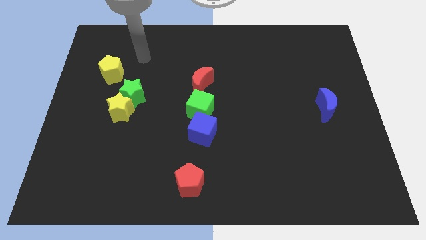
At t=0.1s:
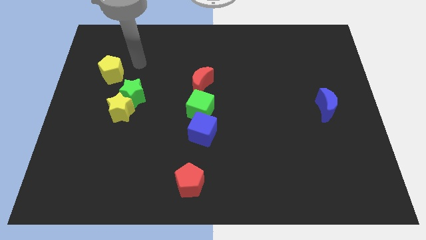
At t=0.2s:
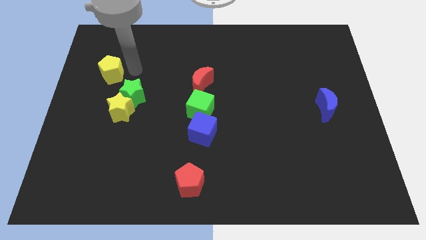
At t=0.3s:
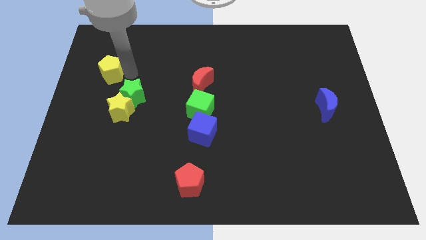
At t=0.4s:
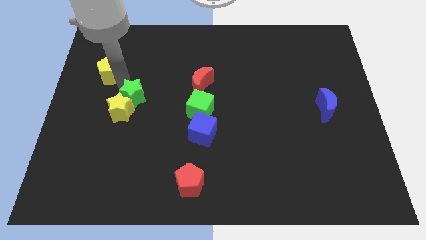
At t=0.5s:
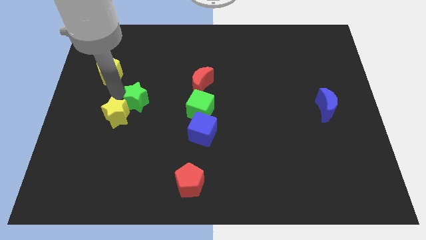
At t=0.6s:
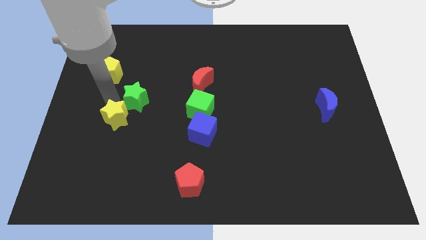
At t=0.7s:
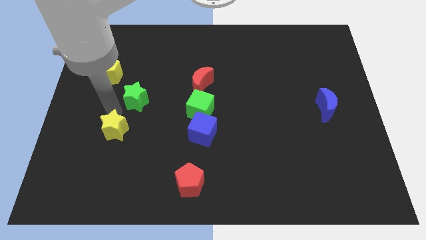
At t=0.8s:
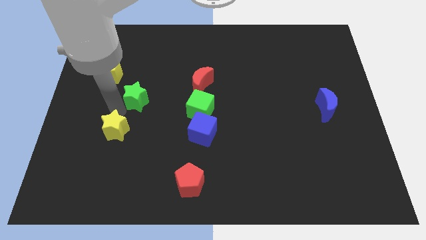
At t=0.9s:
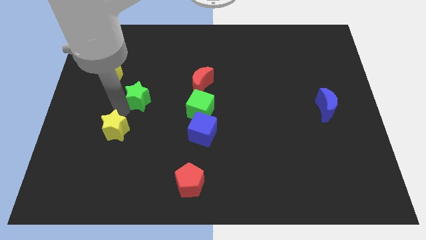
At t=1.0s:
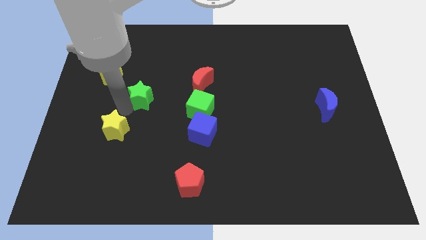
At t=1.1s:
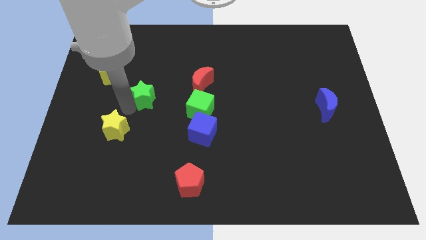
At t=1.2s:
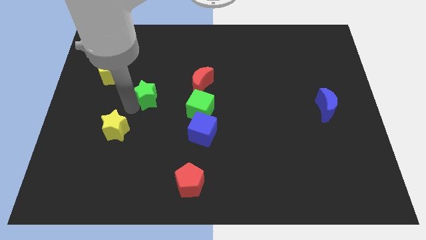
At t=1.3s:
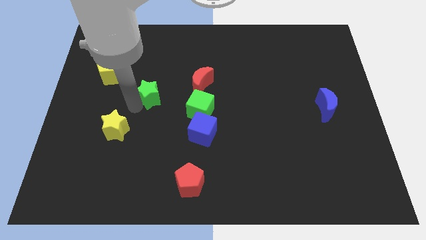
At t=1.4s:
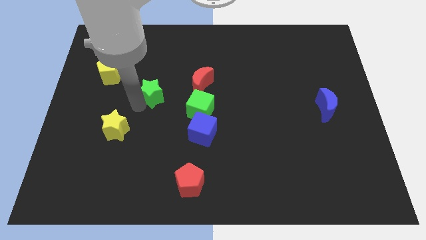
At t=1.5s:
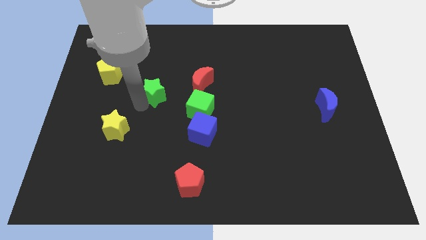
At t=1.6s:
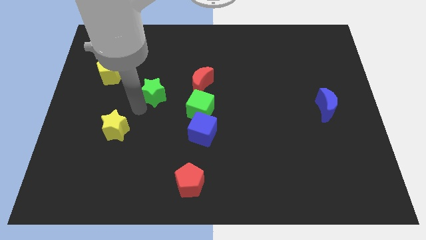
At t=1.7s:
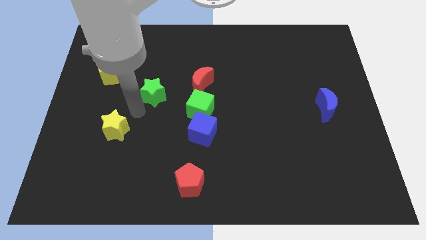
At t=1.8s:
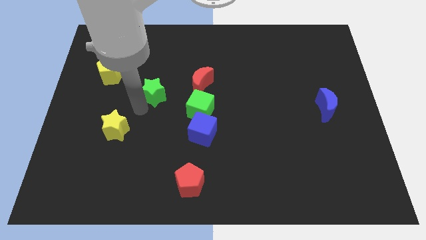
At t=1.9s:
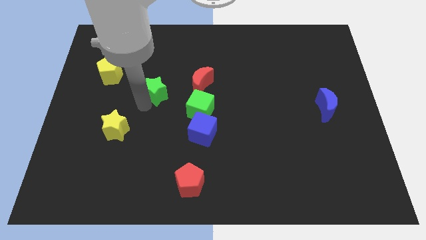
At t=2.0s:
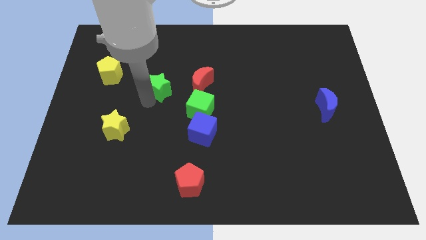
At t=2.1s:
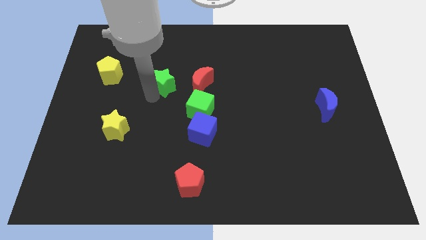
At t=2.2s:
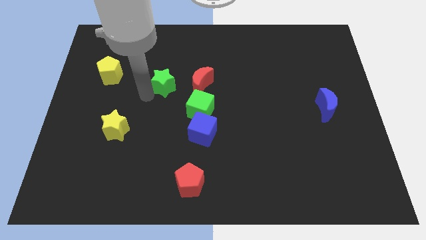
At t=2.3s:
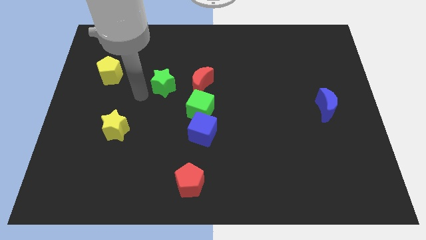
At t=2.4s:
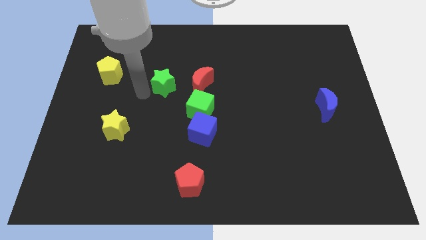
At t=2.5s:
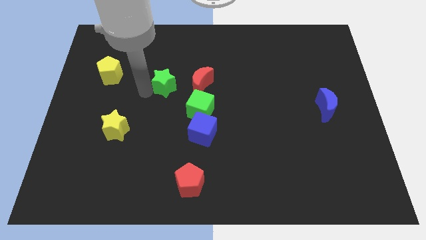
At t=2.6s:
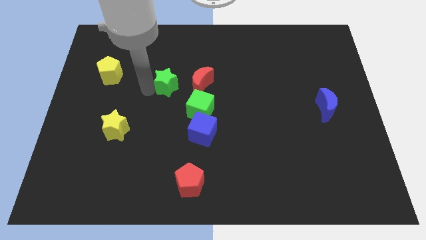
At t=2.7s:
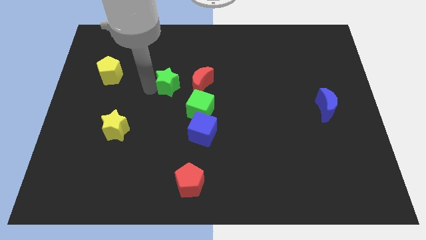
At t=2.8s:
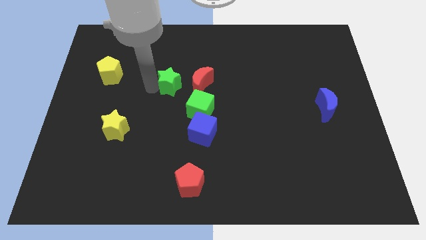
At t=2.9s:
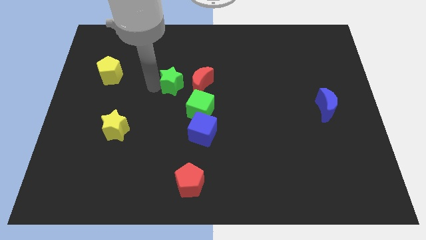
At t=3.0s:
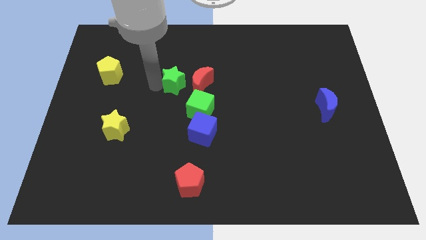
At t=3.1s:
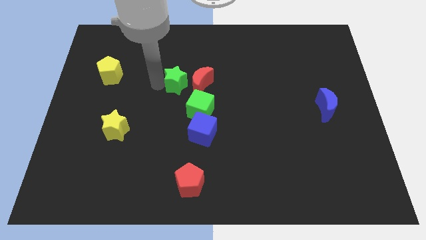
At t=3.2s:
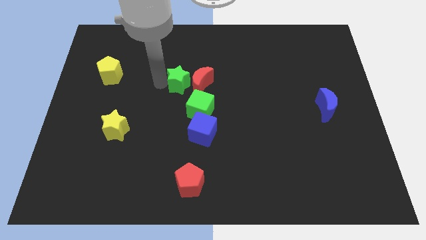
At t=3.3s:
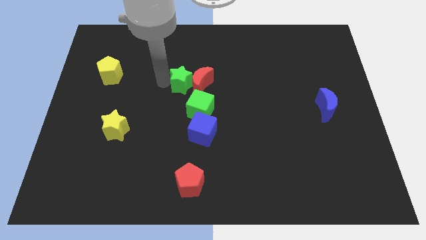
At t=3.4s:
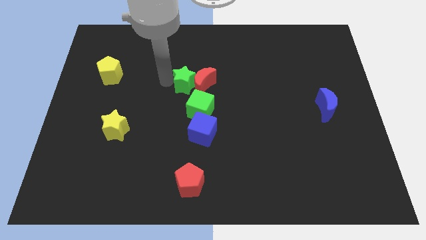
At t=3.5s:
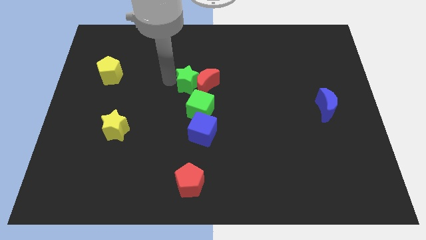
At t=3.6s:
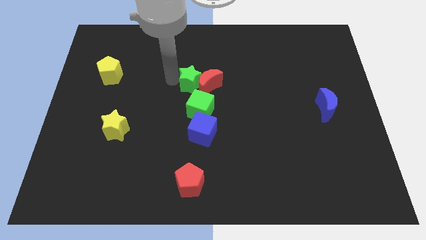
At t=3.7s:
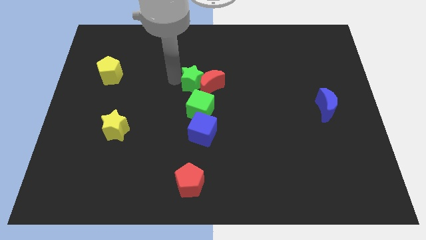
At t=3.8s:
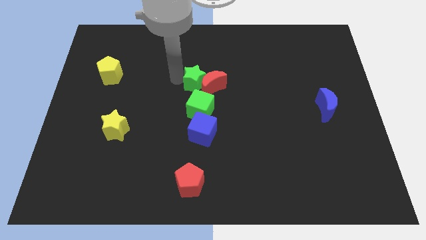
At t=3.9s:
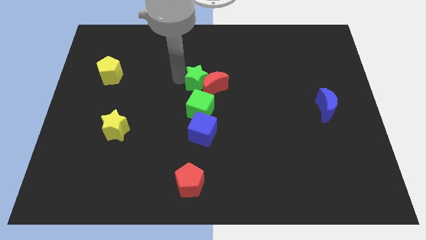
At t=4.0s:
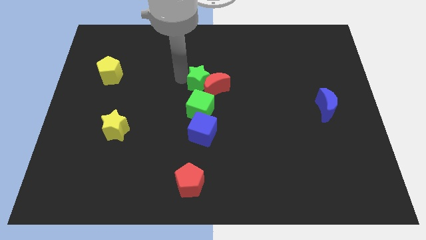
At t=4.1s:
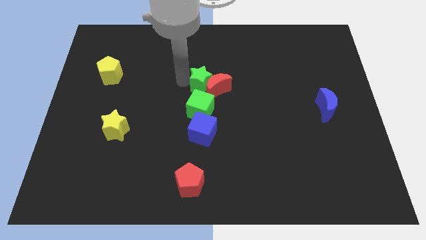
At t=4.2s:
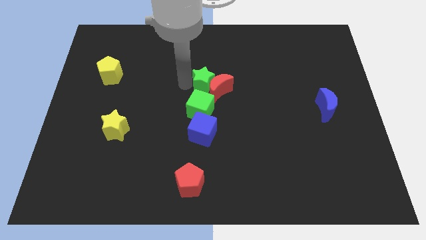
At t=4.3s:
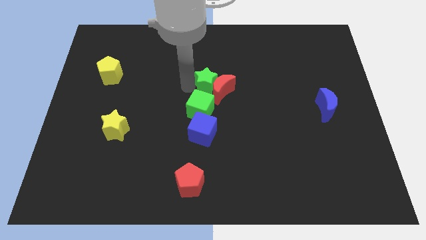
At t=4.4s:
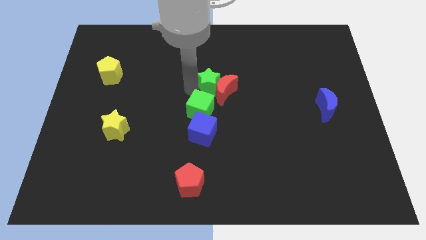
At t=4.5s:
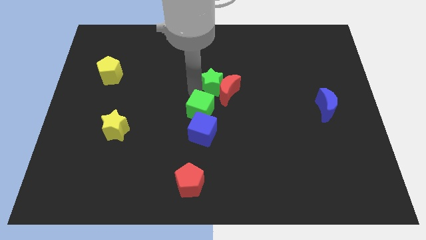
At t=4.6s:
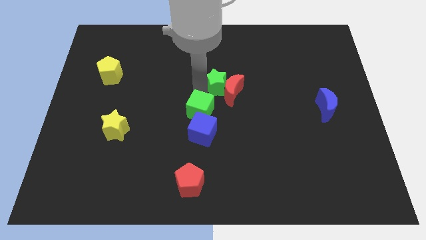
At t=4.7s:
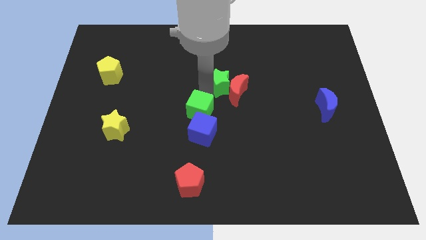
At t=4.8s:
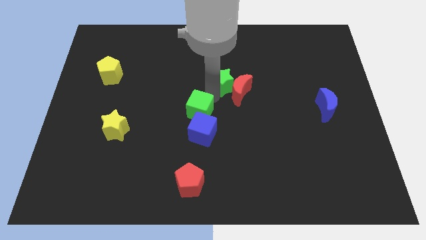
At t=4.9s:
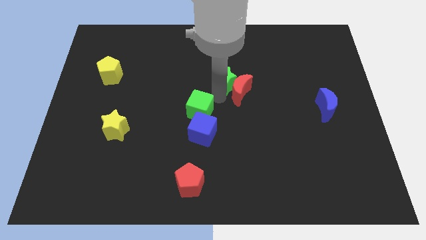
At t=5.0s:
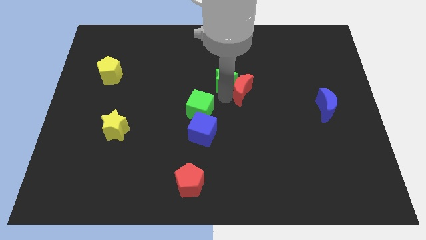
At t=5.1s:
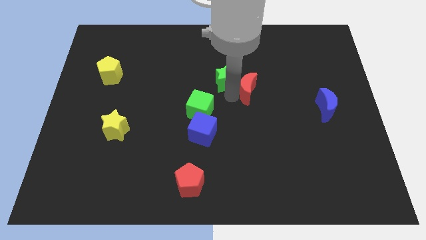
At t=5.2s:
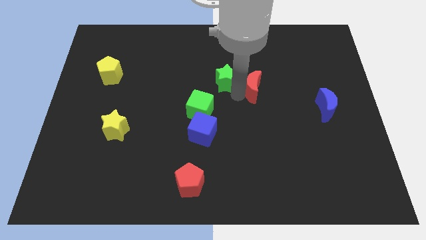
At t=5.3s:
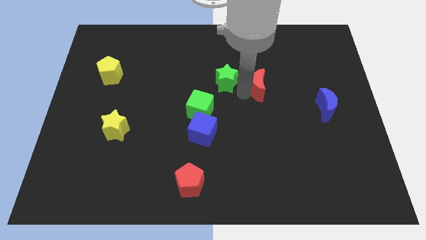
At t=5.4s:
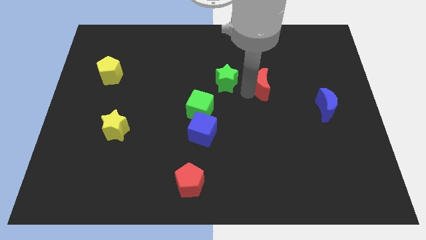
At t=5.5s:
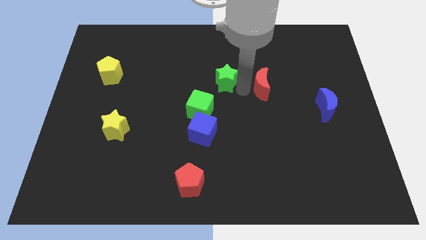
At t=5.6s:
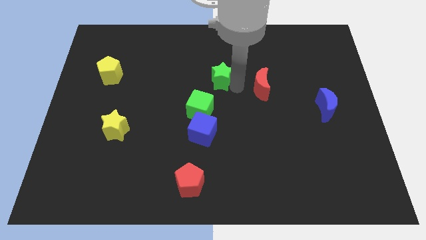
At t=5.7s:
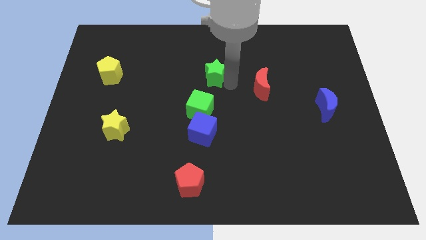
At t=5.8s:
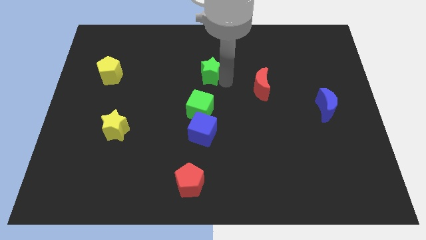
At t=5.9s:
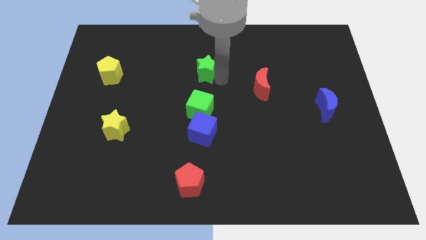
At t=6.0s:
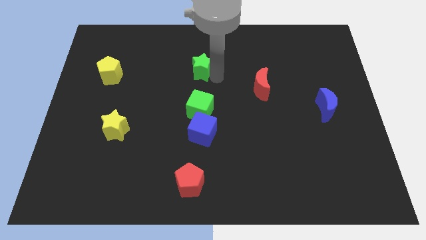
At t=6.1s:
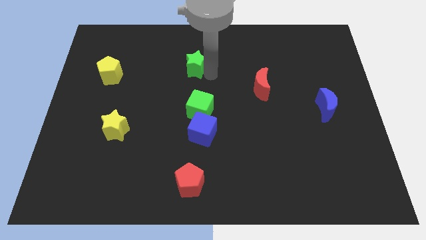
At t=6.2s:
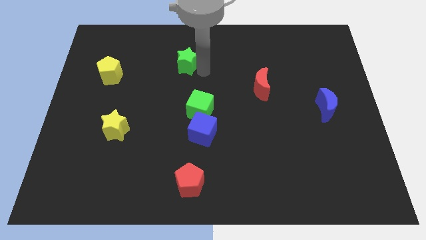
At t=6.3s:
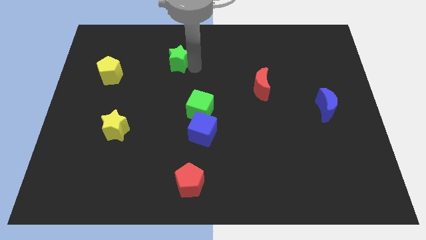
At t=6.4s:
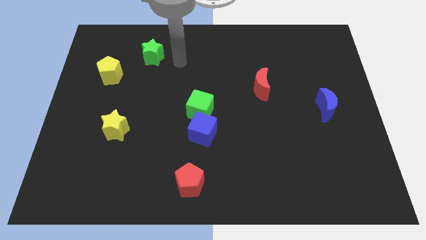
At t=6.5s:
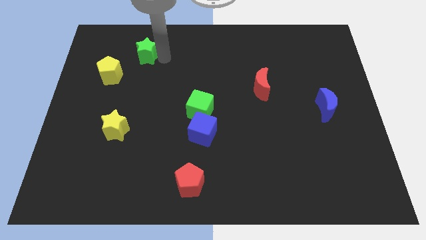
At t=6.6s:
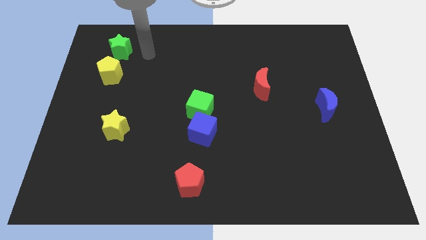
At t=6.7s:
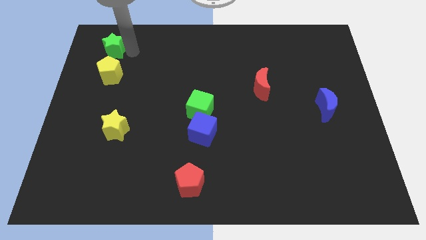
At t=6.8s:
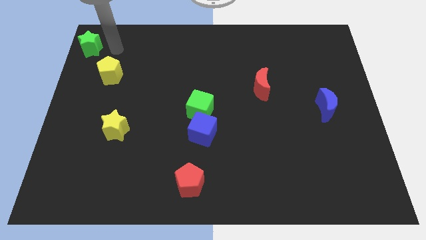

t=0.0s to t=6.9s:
move the green star to the top left corner
